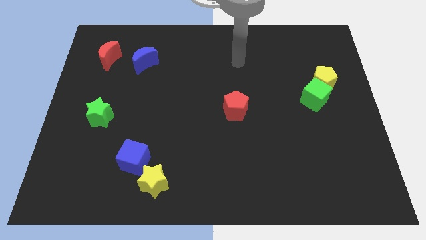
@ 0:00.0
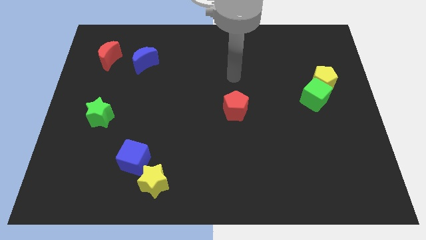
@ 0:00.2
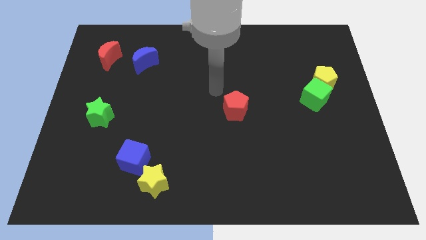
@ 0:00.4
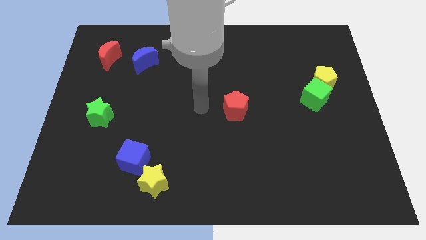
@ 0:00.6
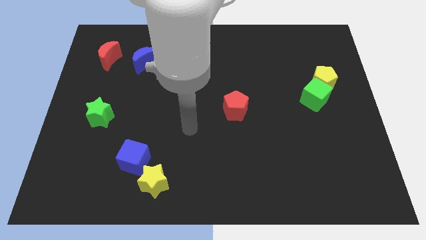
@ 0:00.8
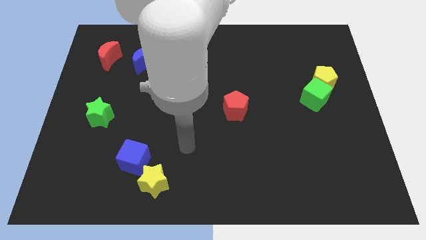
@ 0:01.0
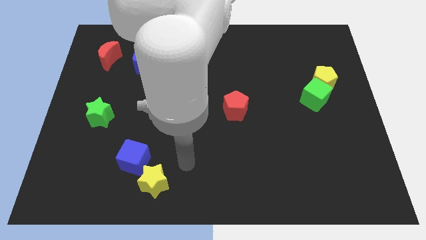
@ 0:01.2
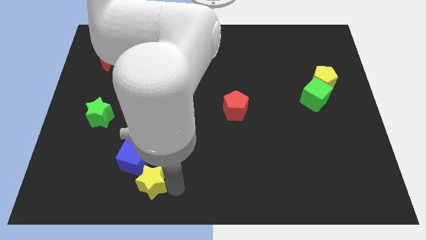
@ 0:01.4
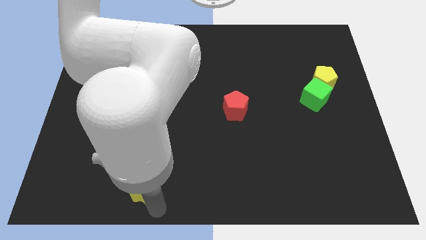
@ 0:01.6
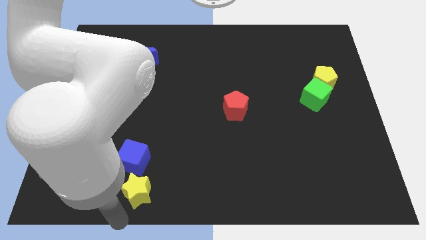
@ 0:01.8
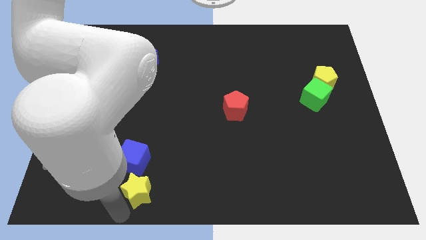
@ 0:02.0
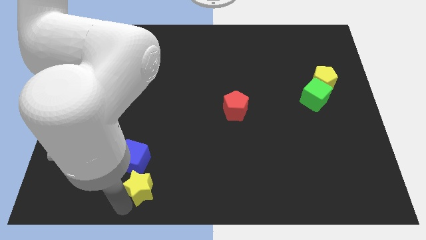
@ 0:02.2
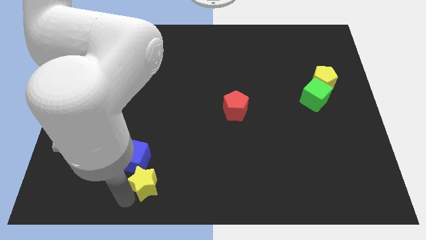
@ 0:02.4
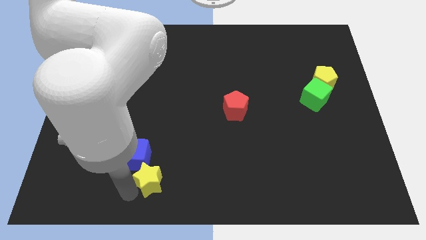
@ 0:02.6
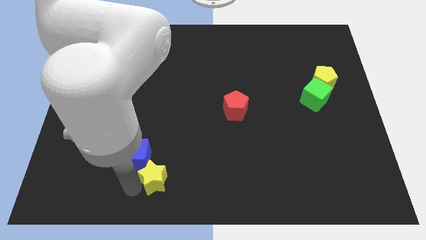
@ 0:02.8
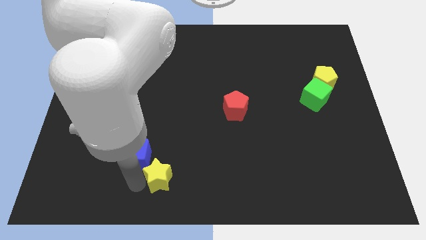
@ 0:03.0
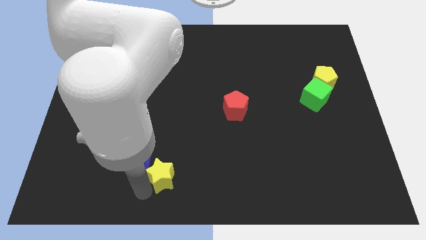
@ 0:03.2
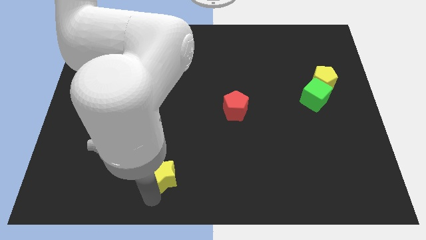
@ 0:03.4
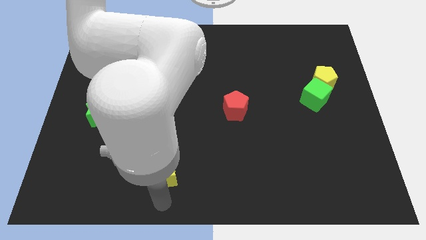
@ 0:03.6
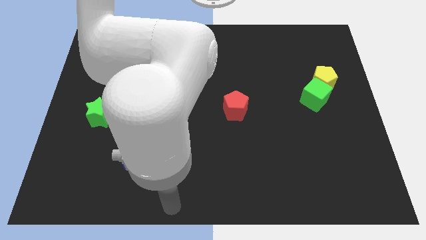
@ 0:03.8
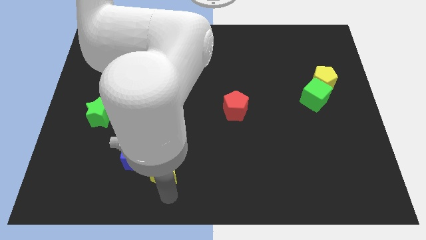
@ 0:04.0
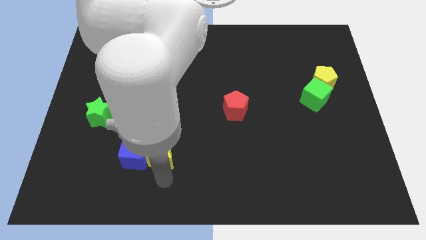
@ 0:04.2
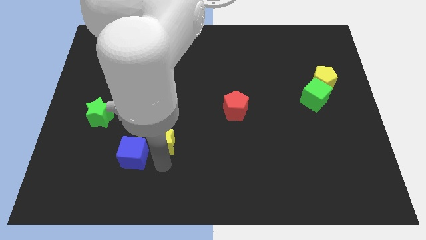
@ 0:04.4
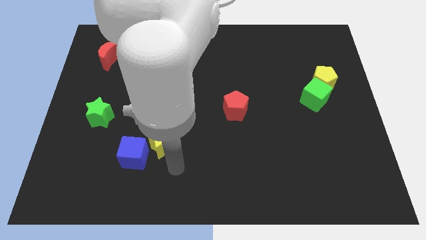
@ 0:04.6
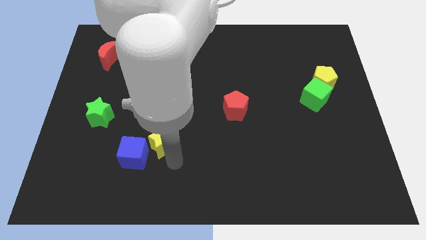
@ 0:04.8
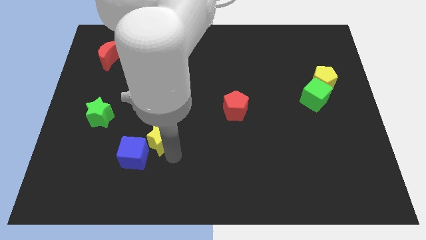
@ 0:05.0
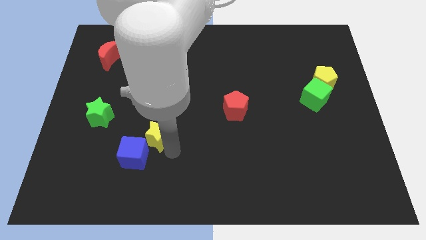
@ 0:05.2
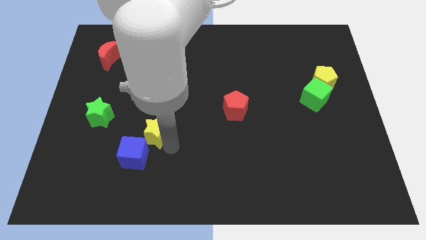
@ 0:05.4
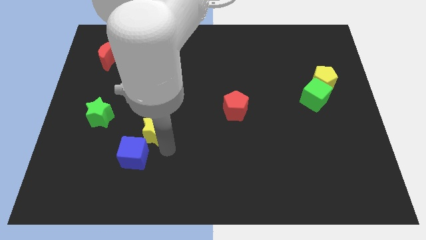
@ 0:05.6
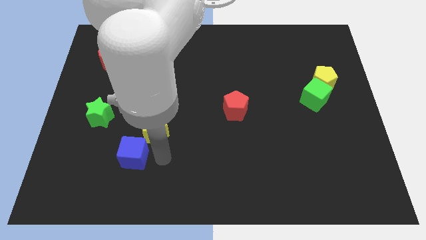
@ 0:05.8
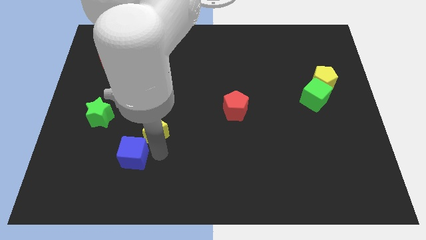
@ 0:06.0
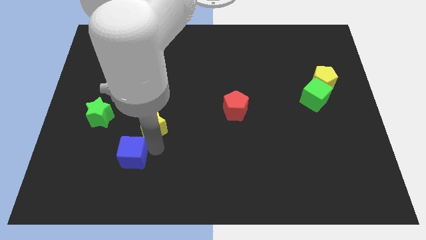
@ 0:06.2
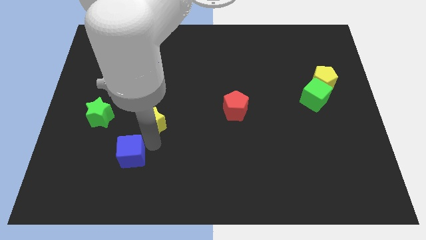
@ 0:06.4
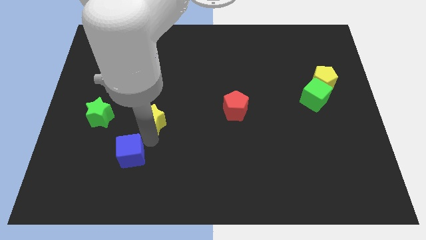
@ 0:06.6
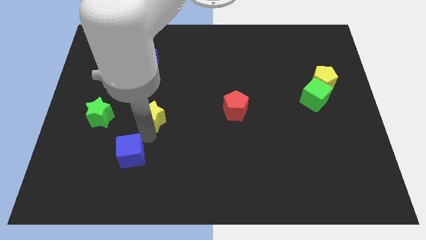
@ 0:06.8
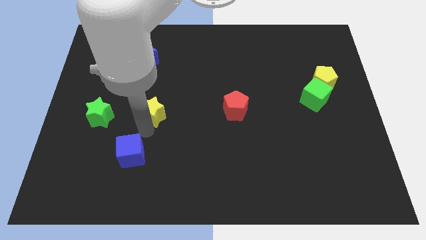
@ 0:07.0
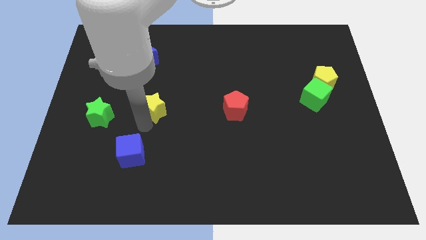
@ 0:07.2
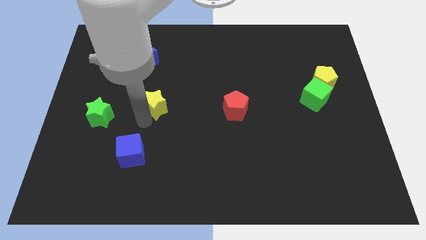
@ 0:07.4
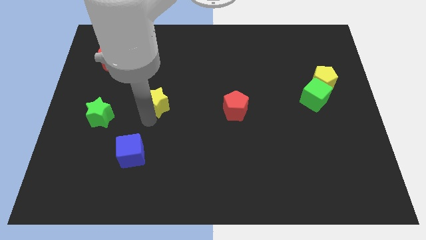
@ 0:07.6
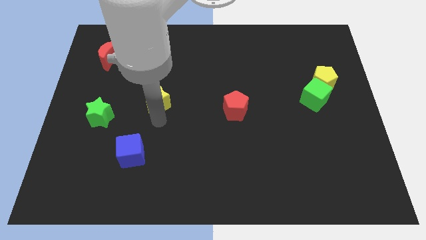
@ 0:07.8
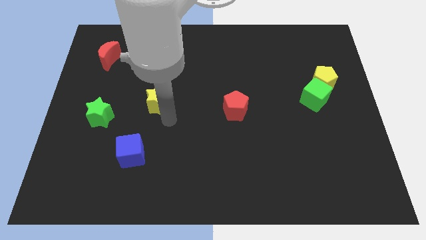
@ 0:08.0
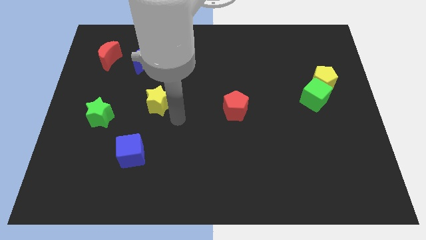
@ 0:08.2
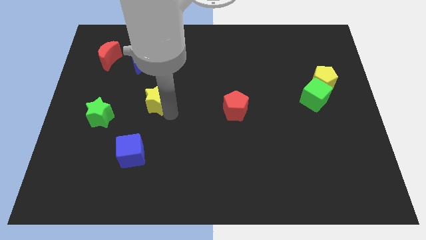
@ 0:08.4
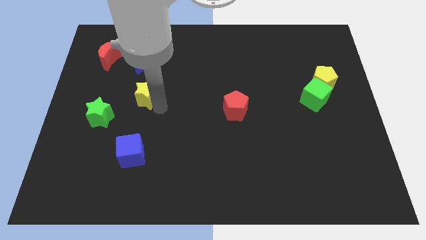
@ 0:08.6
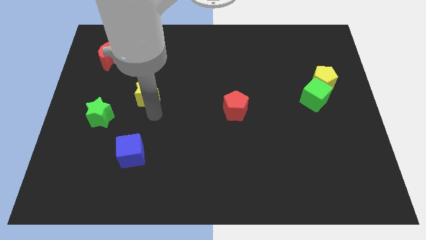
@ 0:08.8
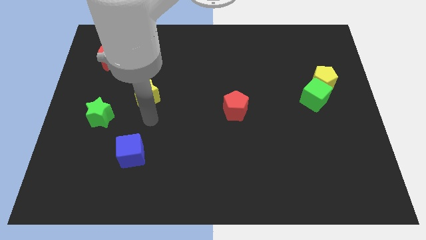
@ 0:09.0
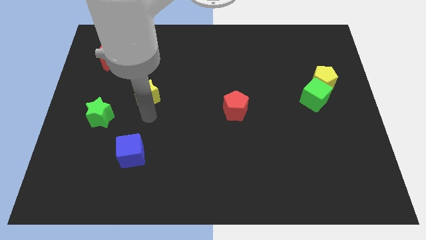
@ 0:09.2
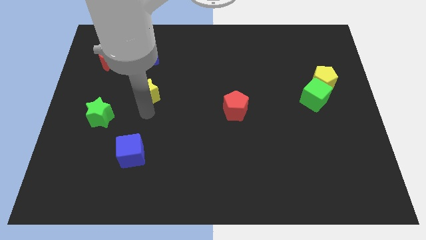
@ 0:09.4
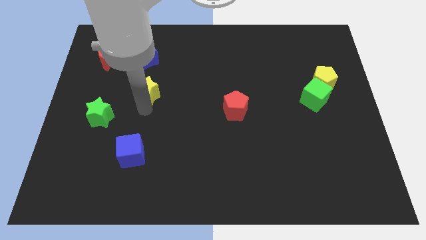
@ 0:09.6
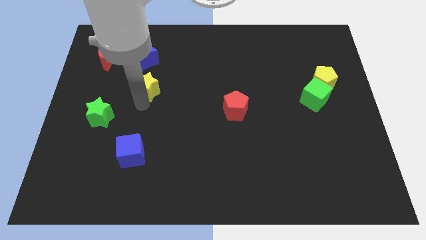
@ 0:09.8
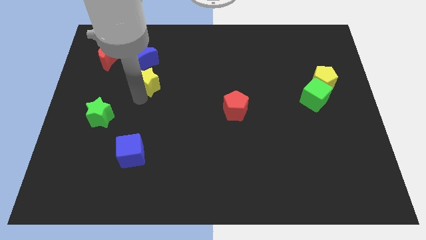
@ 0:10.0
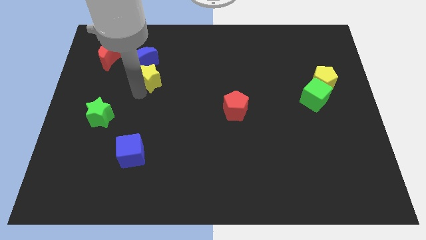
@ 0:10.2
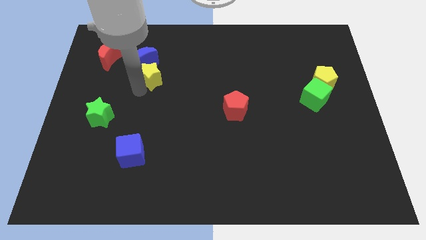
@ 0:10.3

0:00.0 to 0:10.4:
put the yellow star to the blue moon

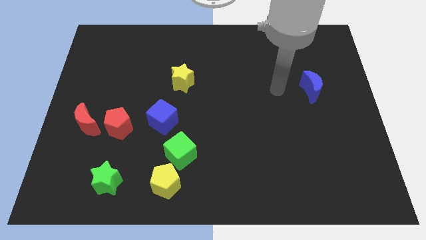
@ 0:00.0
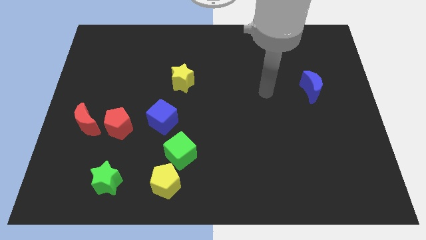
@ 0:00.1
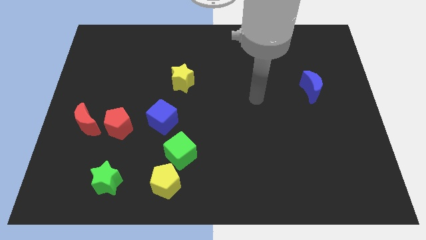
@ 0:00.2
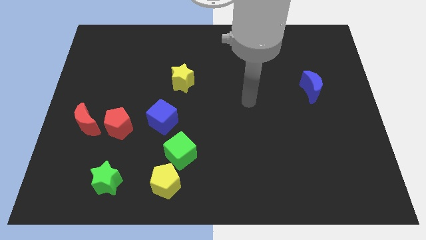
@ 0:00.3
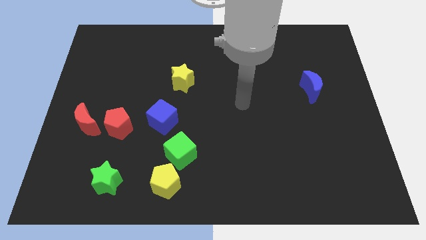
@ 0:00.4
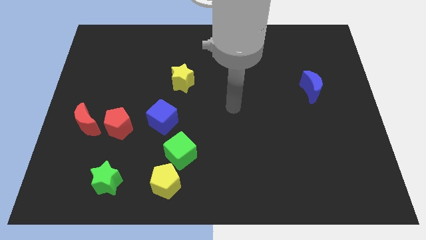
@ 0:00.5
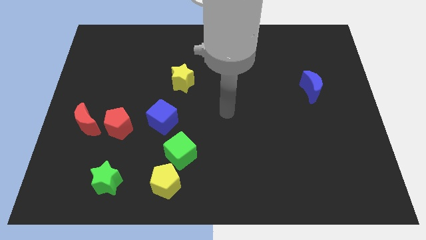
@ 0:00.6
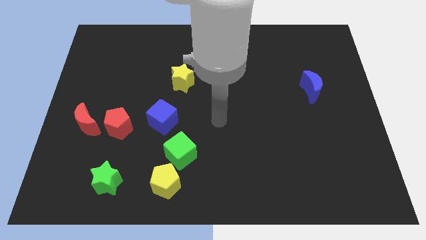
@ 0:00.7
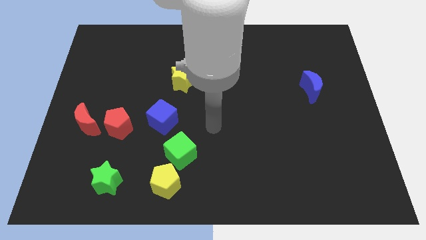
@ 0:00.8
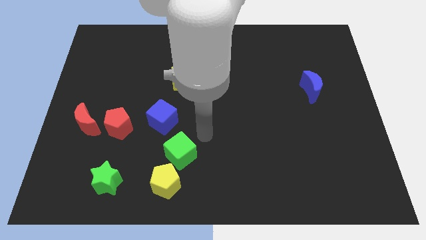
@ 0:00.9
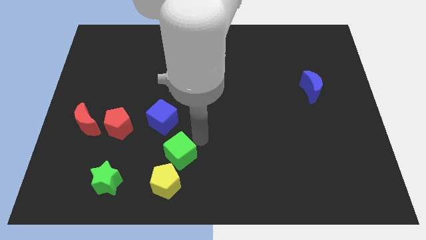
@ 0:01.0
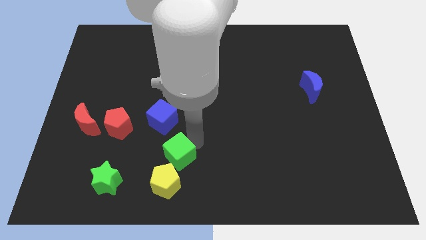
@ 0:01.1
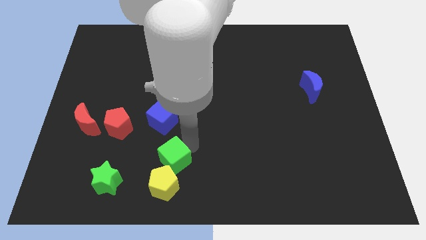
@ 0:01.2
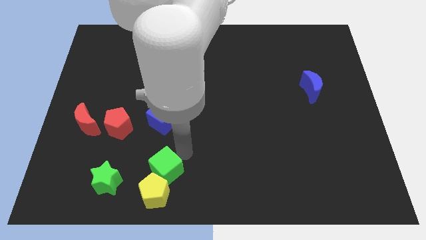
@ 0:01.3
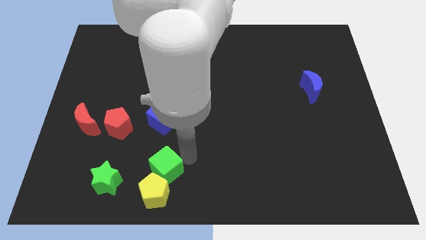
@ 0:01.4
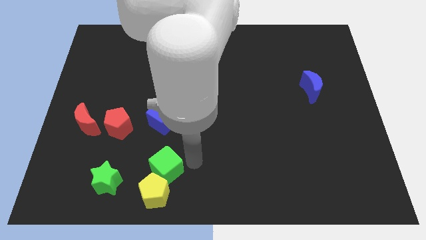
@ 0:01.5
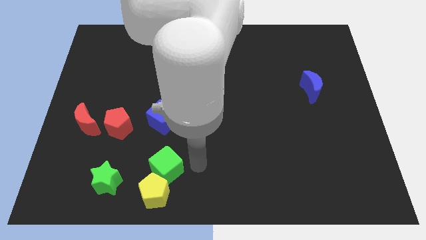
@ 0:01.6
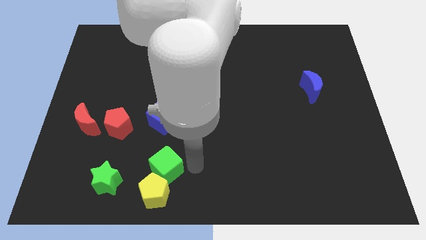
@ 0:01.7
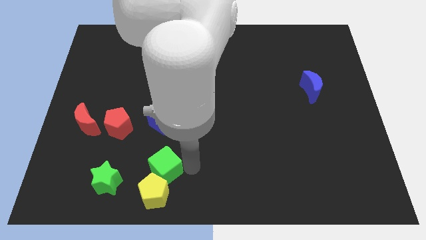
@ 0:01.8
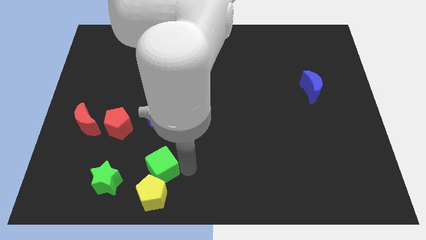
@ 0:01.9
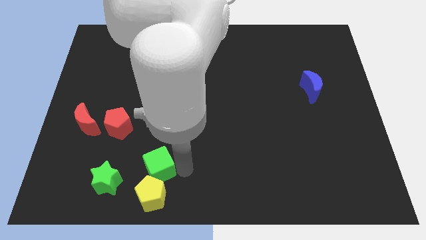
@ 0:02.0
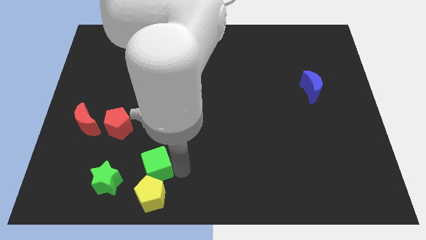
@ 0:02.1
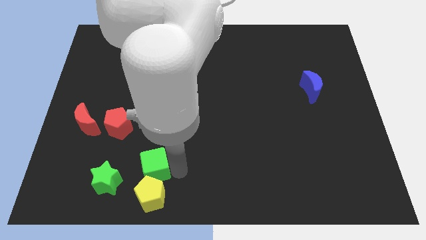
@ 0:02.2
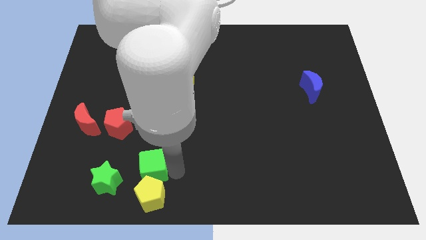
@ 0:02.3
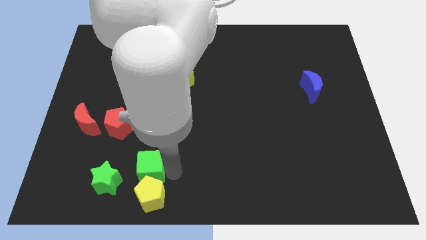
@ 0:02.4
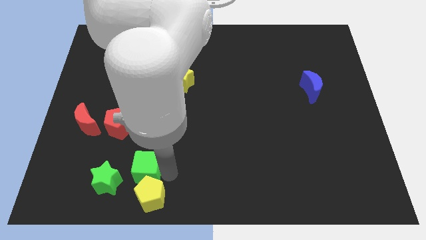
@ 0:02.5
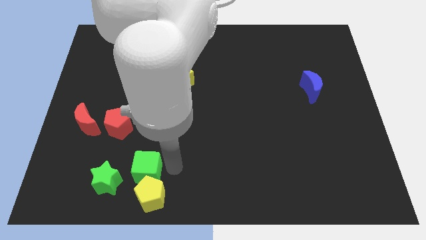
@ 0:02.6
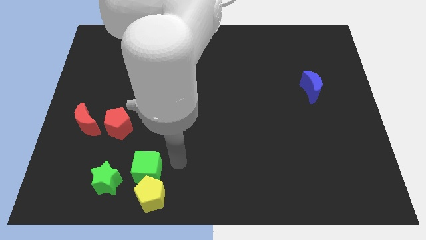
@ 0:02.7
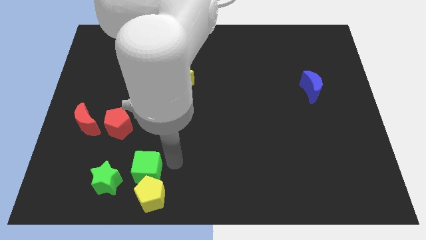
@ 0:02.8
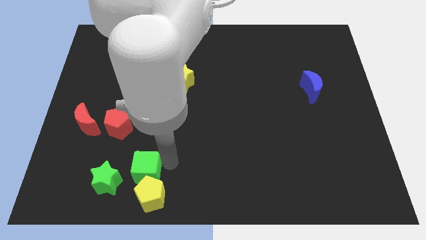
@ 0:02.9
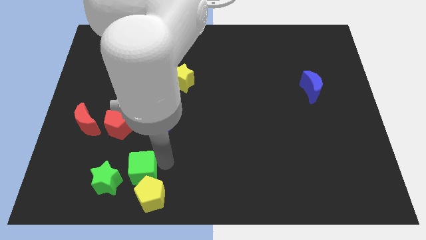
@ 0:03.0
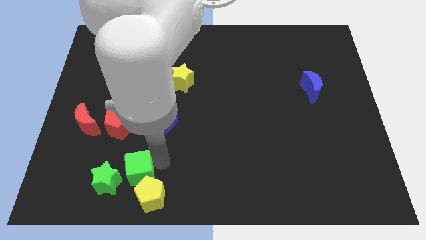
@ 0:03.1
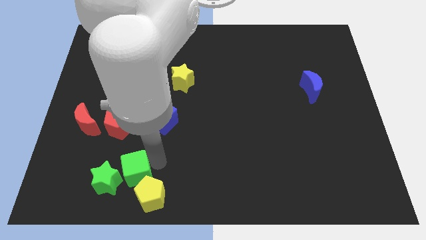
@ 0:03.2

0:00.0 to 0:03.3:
push the green cube close to the green star
